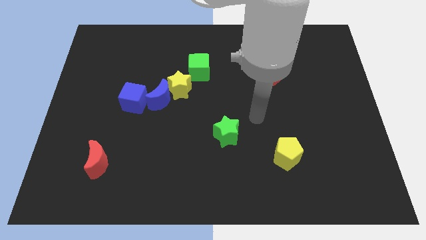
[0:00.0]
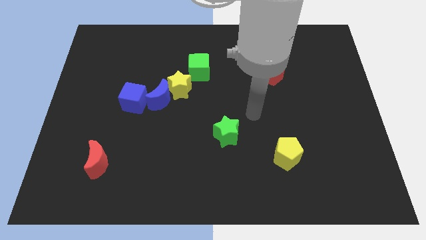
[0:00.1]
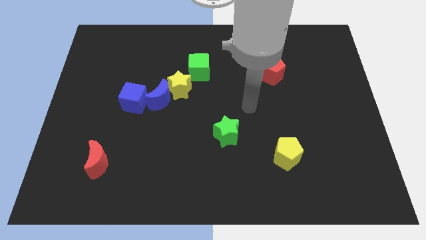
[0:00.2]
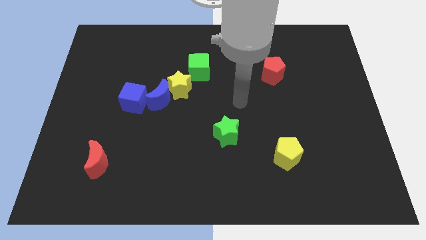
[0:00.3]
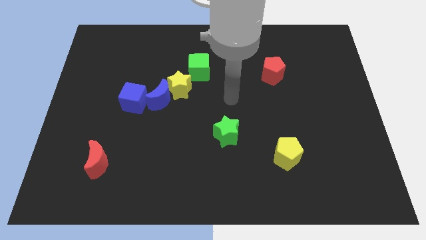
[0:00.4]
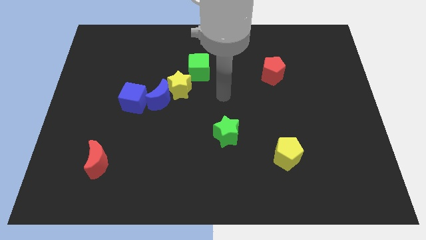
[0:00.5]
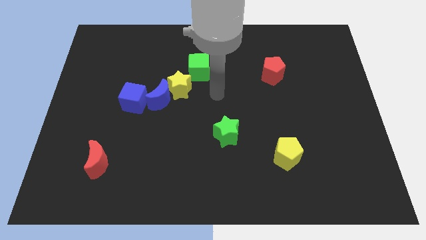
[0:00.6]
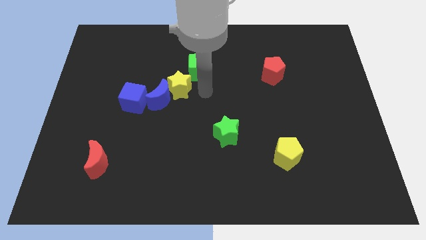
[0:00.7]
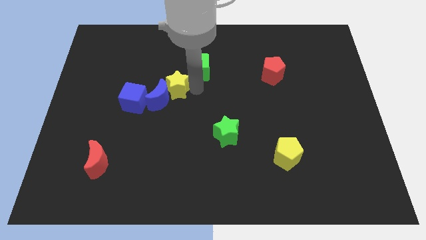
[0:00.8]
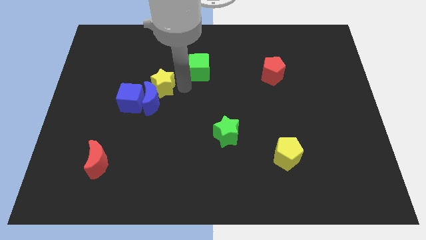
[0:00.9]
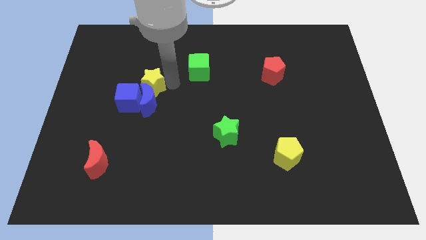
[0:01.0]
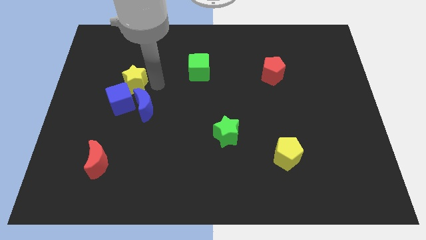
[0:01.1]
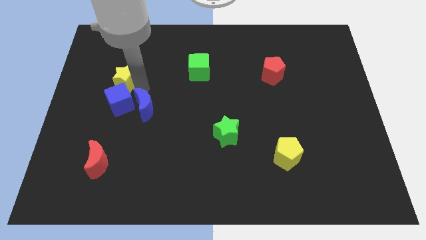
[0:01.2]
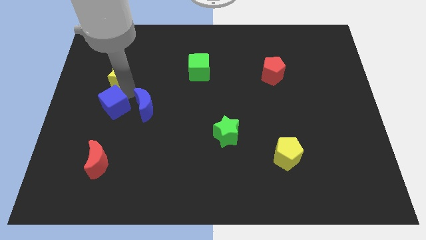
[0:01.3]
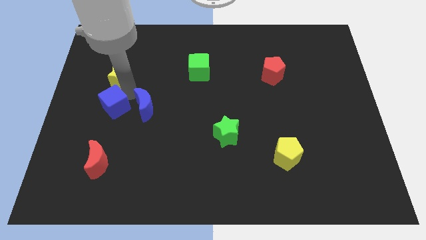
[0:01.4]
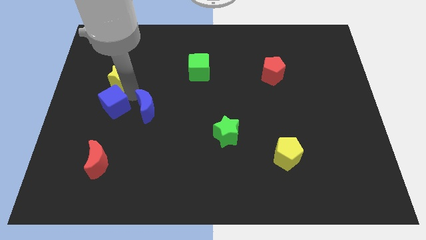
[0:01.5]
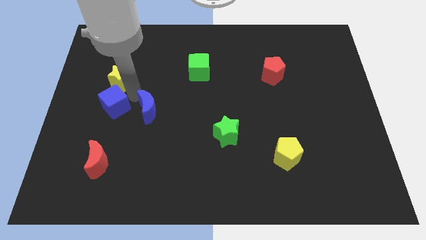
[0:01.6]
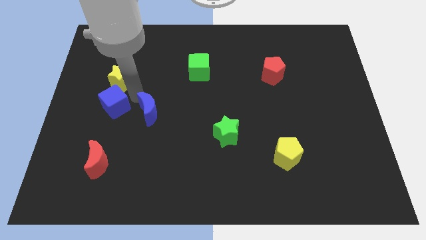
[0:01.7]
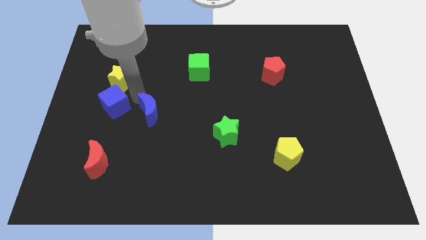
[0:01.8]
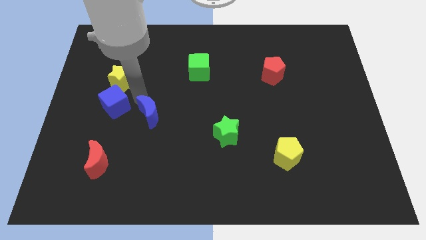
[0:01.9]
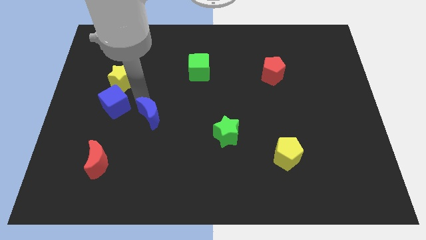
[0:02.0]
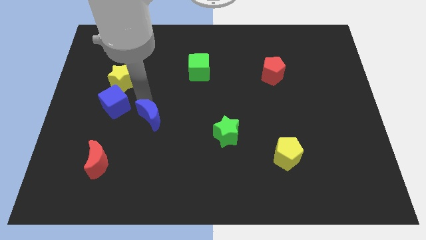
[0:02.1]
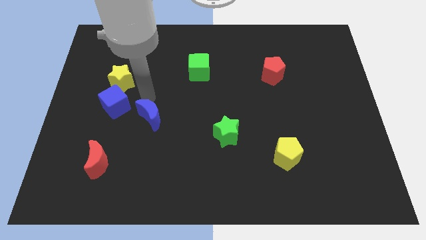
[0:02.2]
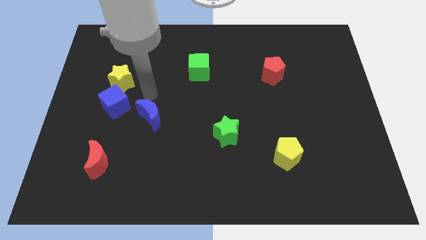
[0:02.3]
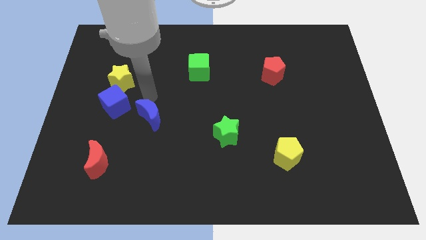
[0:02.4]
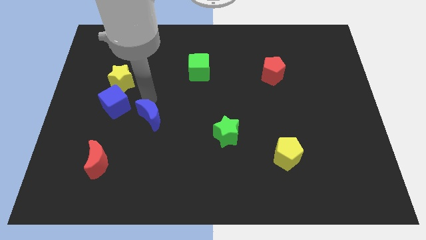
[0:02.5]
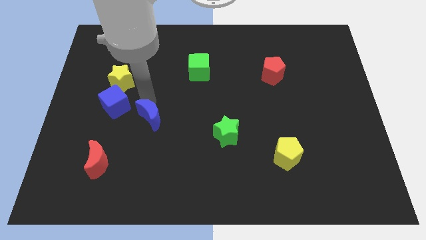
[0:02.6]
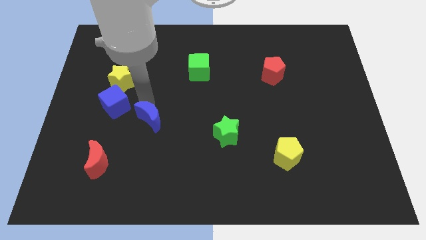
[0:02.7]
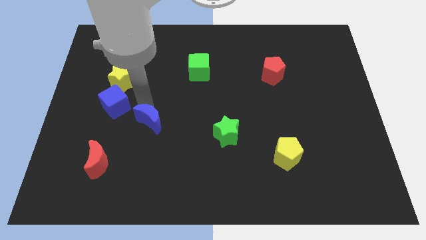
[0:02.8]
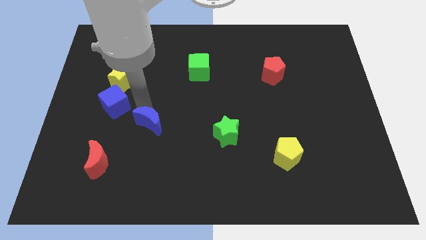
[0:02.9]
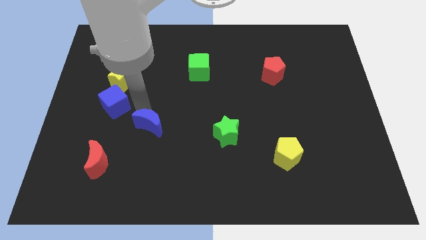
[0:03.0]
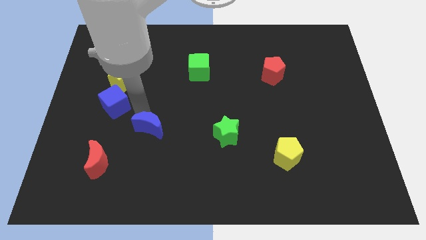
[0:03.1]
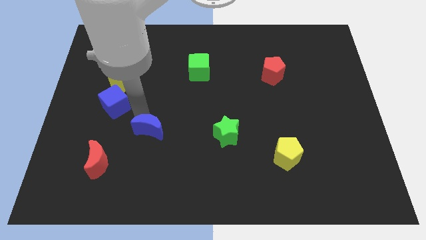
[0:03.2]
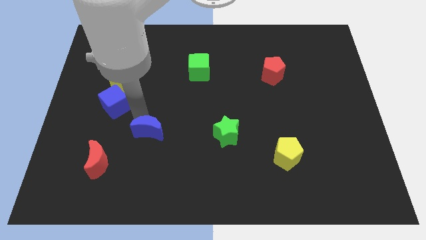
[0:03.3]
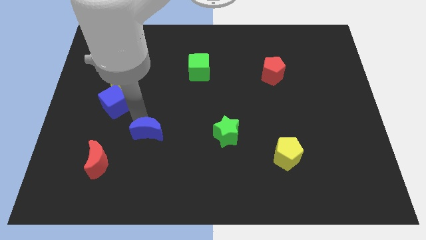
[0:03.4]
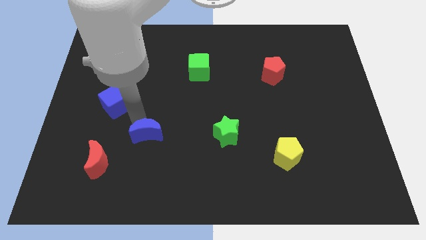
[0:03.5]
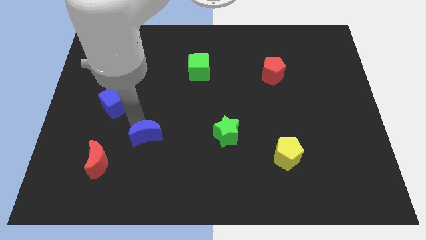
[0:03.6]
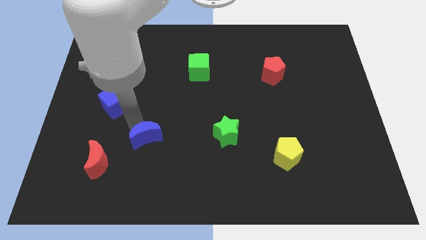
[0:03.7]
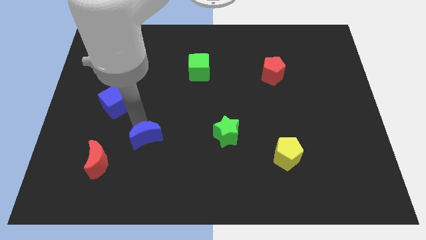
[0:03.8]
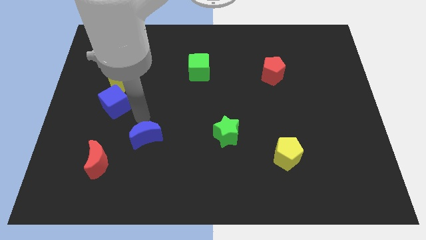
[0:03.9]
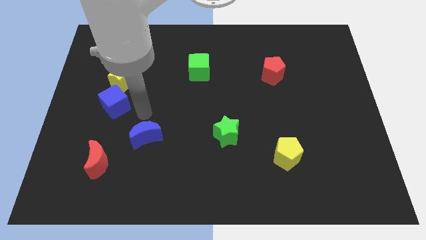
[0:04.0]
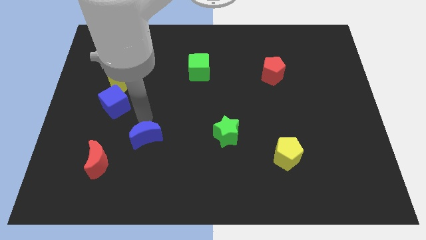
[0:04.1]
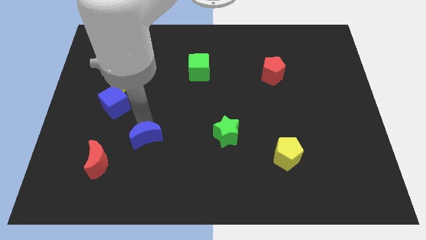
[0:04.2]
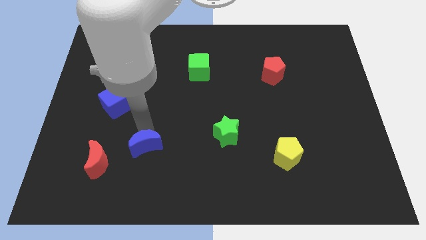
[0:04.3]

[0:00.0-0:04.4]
put the blue moon to the right side of the red moon

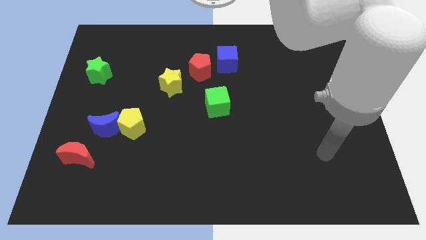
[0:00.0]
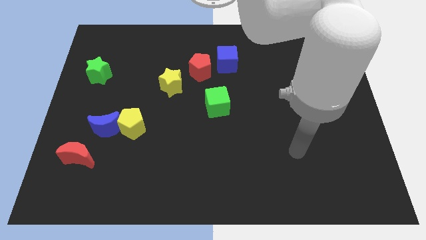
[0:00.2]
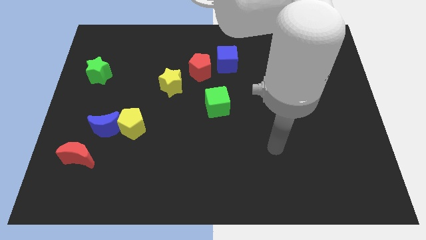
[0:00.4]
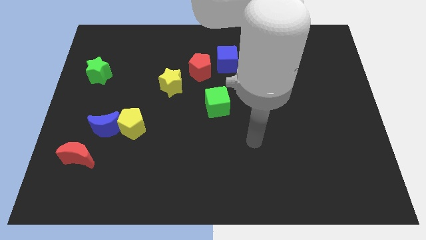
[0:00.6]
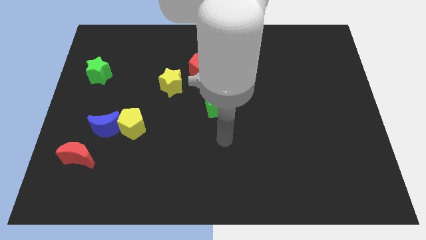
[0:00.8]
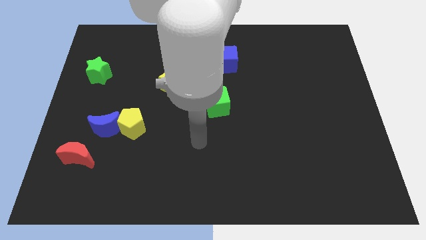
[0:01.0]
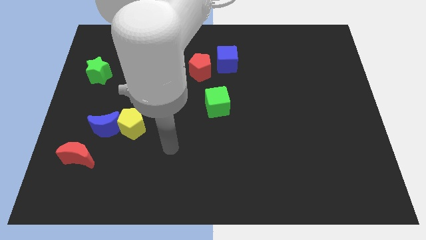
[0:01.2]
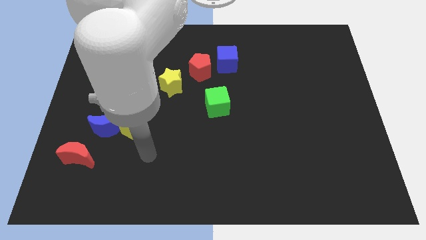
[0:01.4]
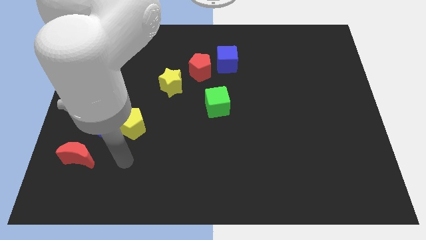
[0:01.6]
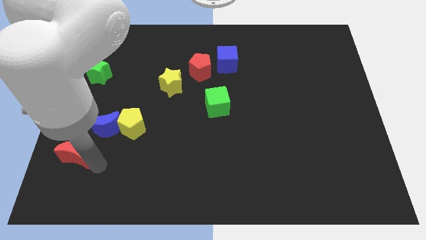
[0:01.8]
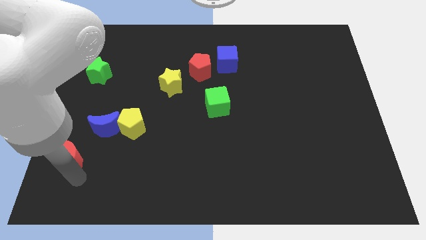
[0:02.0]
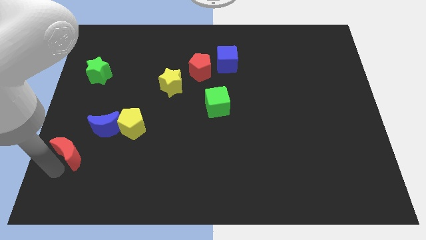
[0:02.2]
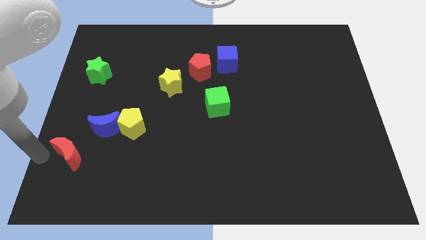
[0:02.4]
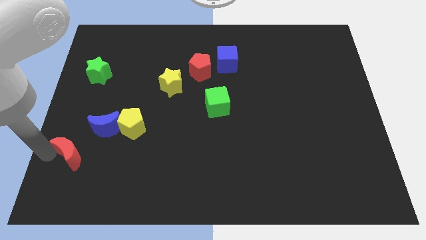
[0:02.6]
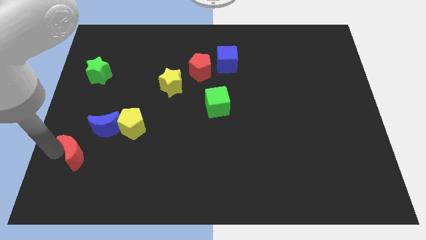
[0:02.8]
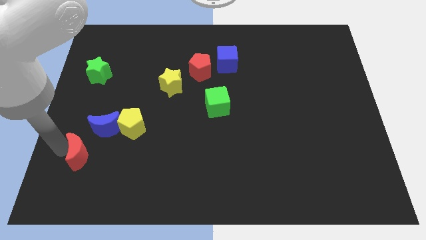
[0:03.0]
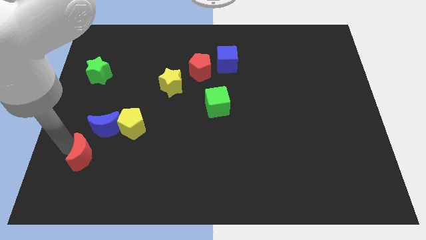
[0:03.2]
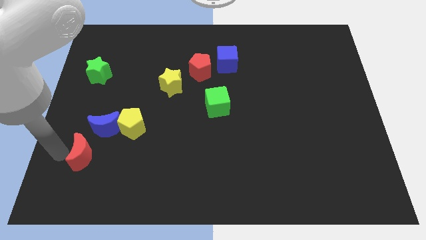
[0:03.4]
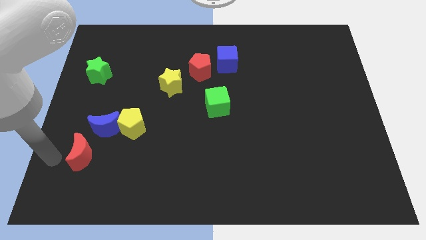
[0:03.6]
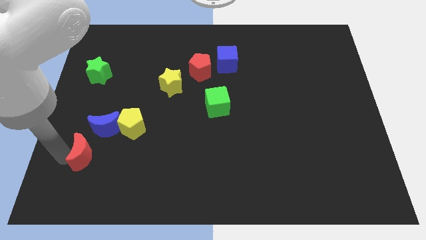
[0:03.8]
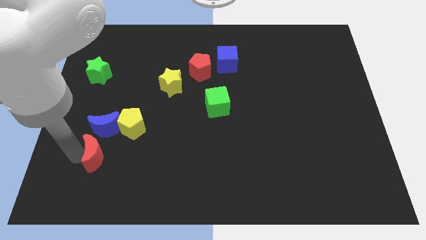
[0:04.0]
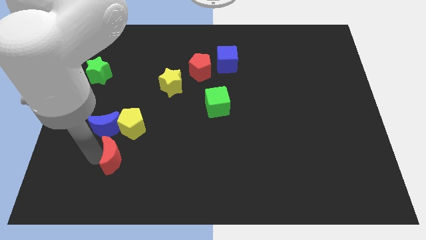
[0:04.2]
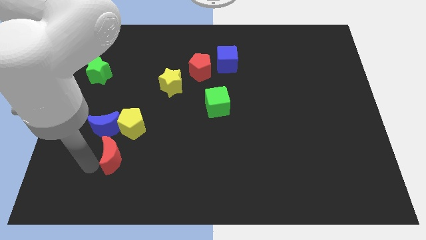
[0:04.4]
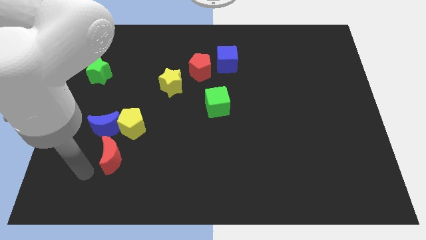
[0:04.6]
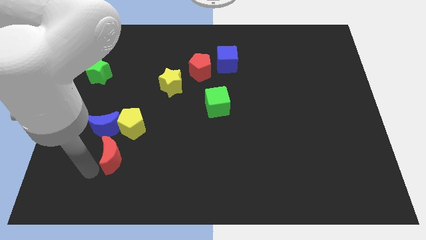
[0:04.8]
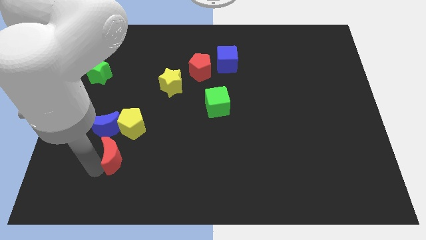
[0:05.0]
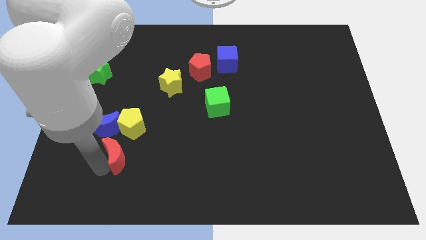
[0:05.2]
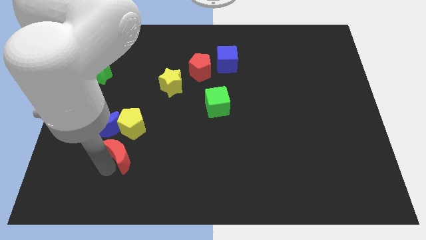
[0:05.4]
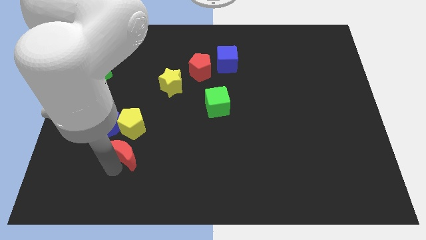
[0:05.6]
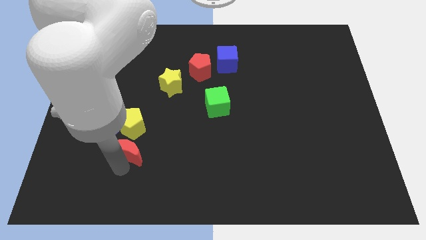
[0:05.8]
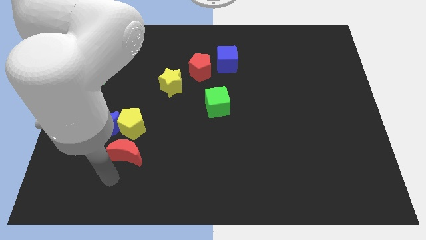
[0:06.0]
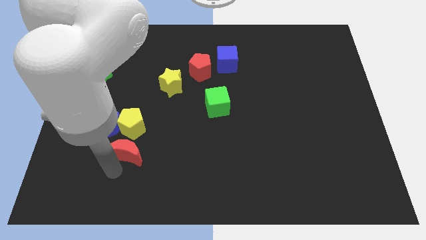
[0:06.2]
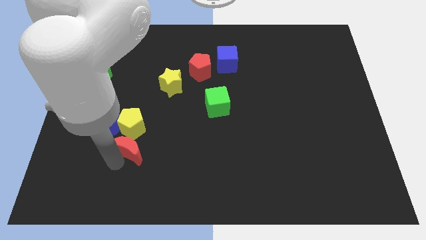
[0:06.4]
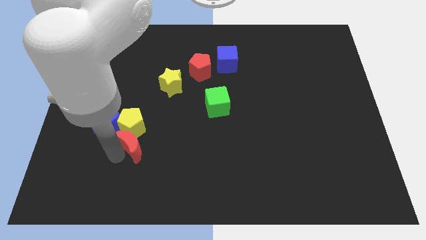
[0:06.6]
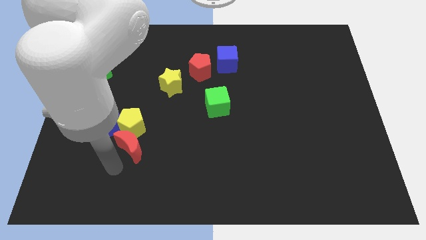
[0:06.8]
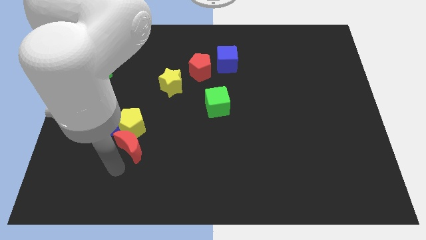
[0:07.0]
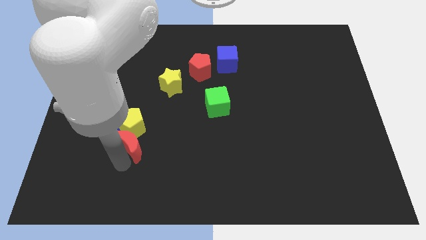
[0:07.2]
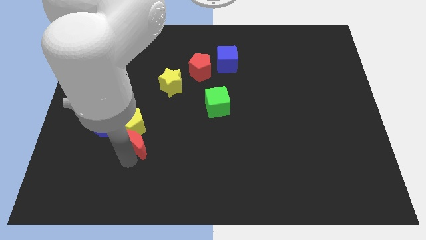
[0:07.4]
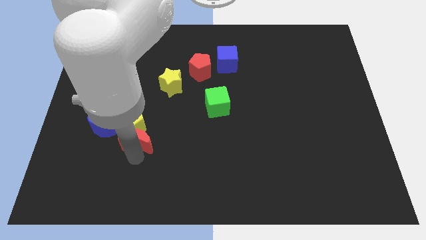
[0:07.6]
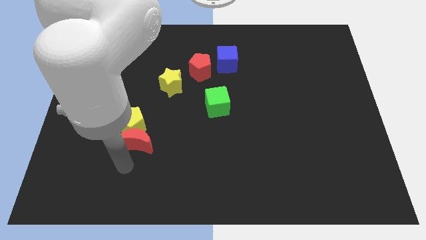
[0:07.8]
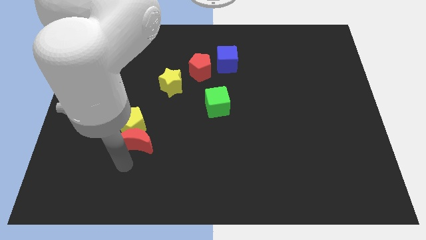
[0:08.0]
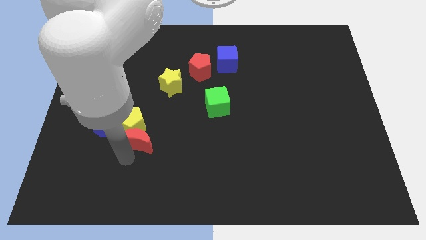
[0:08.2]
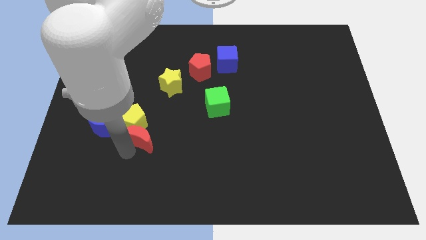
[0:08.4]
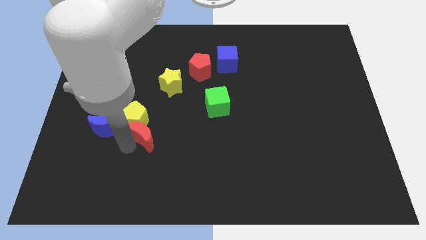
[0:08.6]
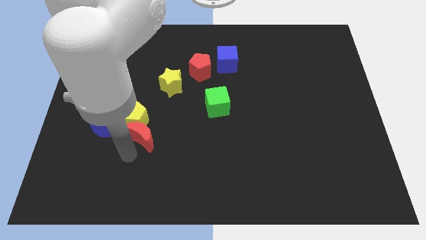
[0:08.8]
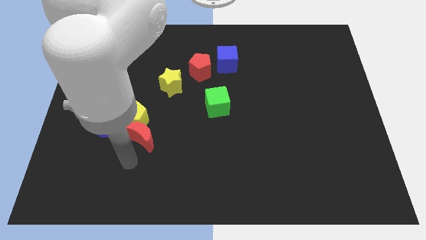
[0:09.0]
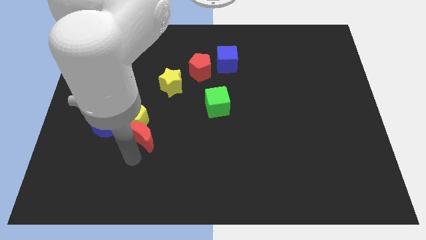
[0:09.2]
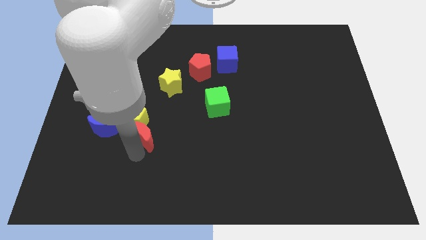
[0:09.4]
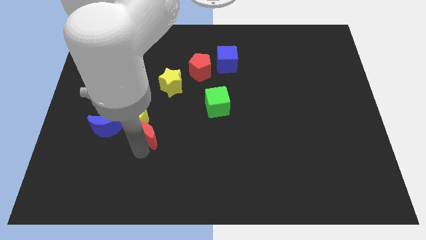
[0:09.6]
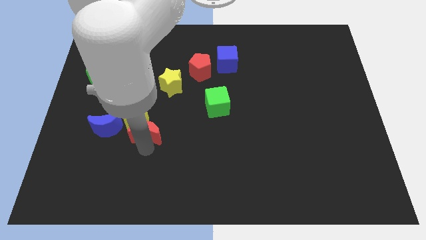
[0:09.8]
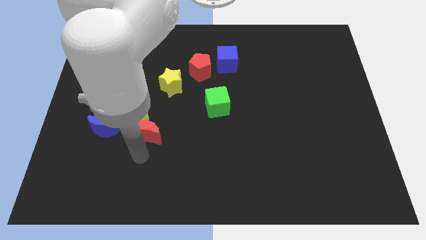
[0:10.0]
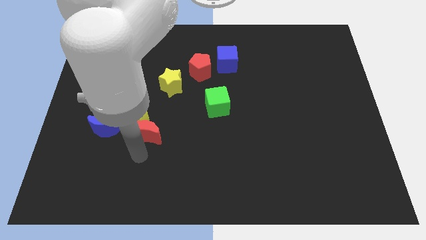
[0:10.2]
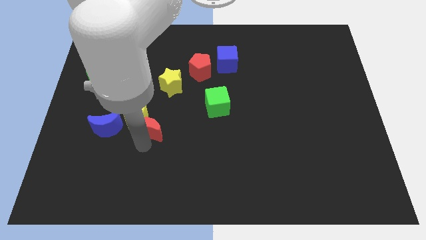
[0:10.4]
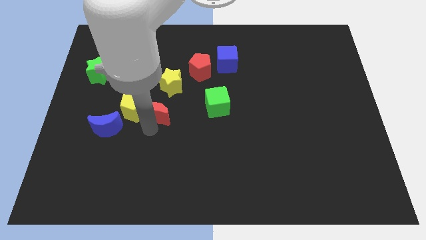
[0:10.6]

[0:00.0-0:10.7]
push the red moon to the top right side of the yellow pentagon
